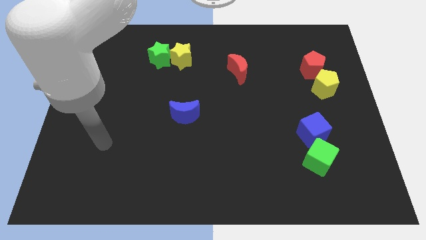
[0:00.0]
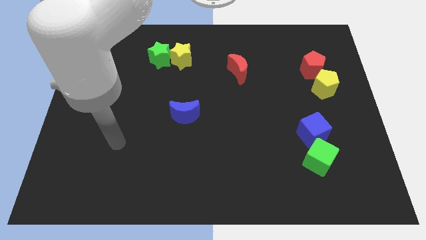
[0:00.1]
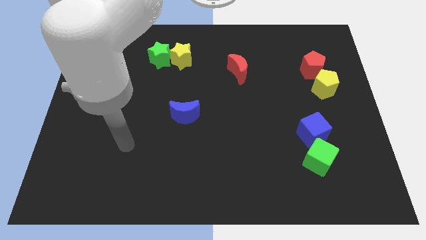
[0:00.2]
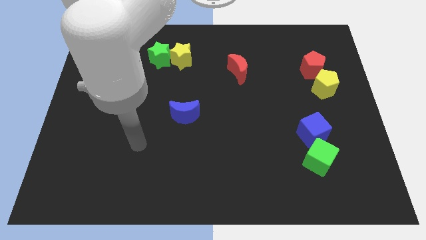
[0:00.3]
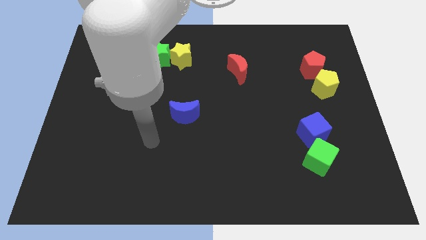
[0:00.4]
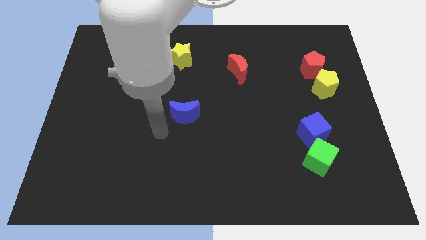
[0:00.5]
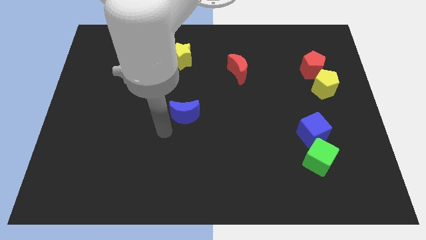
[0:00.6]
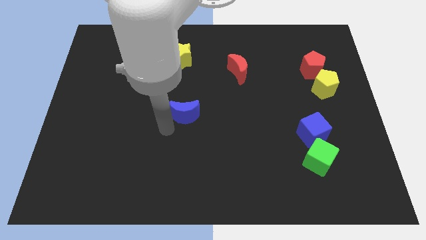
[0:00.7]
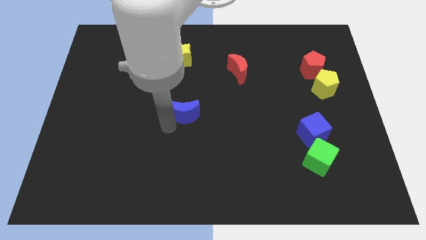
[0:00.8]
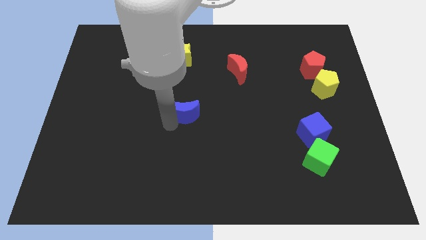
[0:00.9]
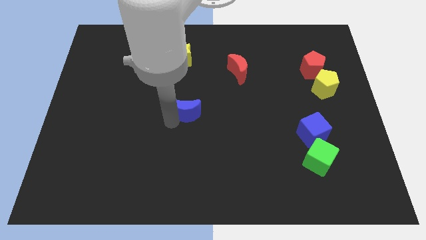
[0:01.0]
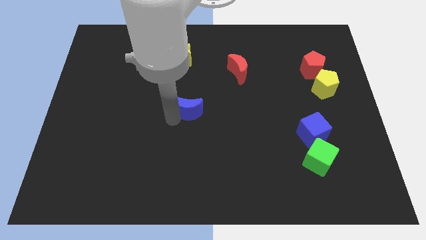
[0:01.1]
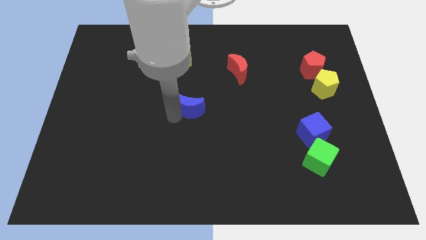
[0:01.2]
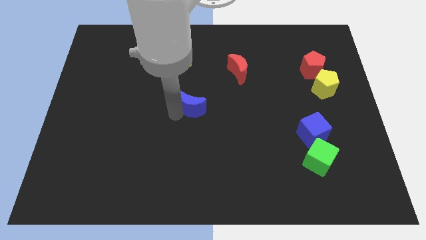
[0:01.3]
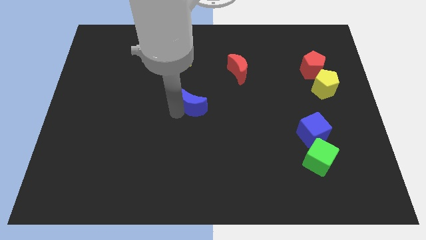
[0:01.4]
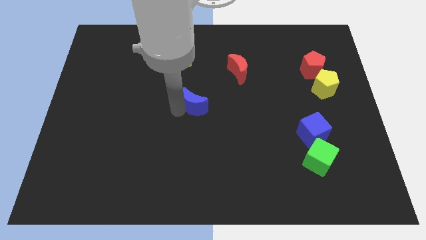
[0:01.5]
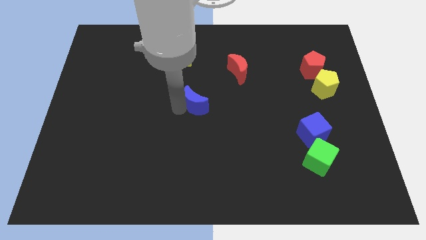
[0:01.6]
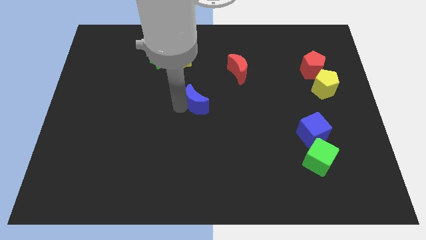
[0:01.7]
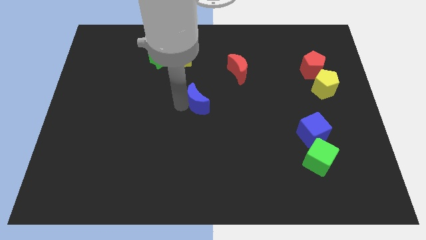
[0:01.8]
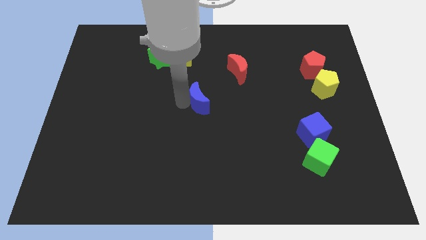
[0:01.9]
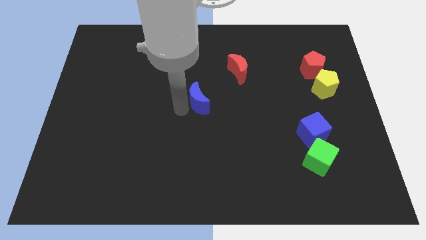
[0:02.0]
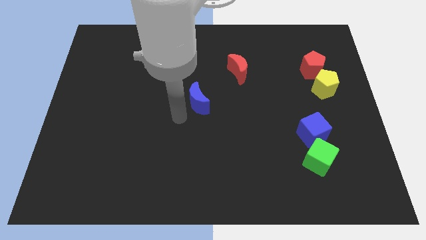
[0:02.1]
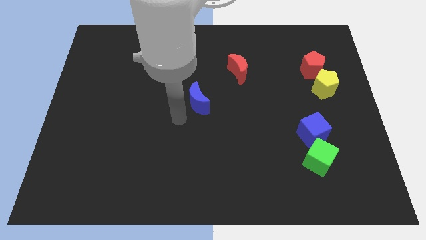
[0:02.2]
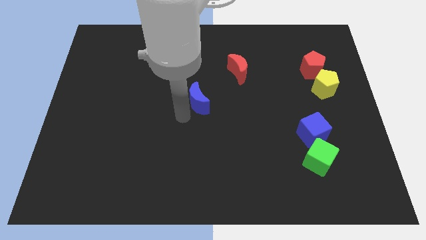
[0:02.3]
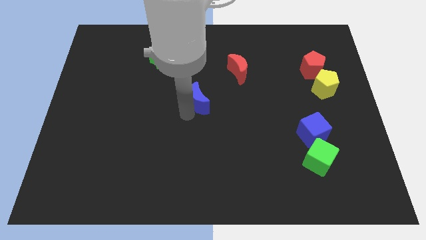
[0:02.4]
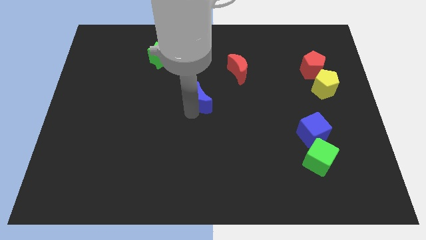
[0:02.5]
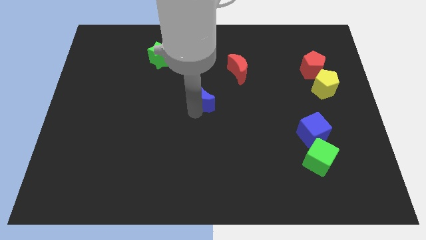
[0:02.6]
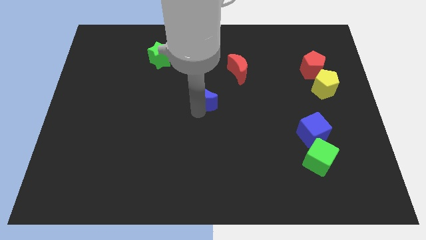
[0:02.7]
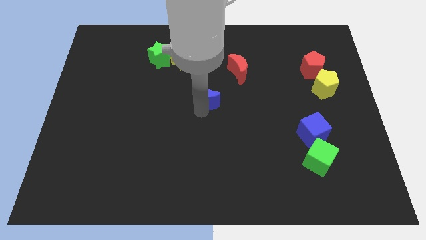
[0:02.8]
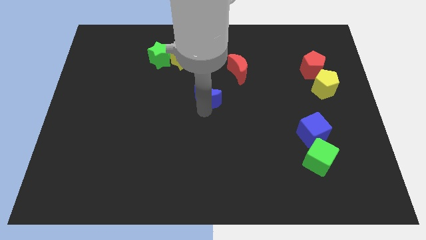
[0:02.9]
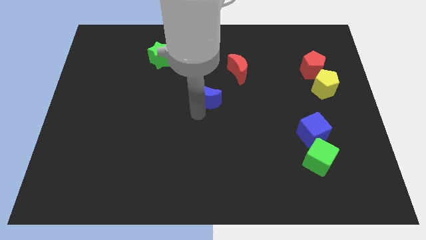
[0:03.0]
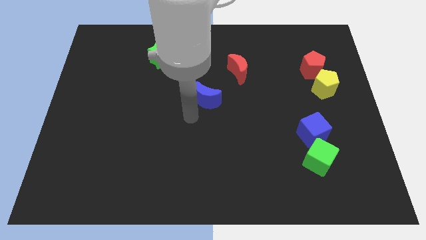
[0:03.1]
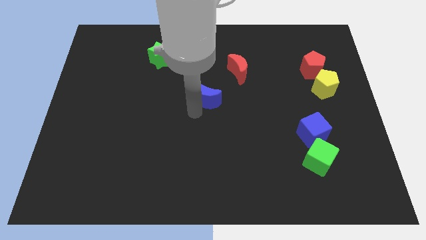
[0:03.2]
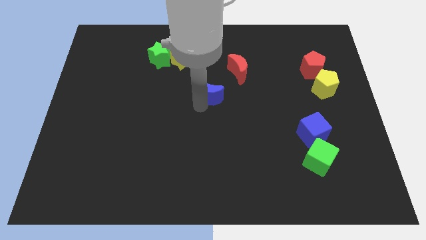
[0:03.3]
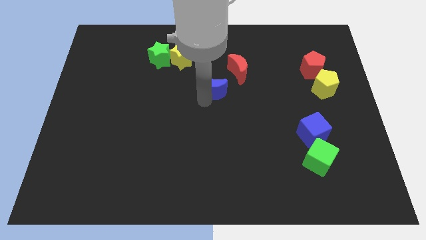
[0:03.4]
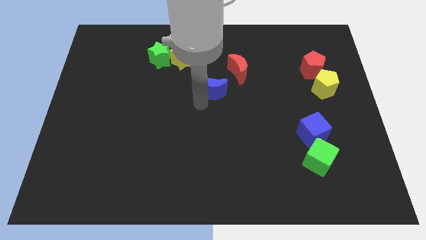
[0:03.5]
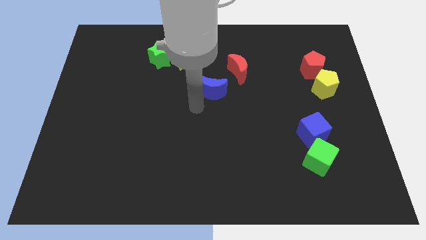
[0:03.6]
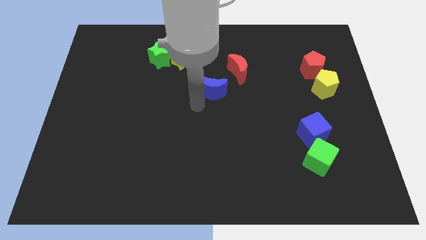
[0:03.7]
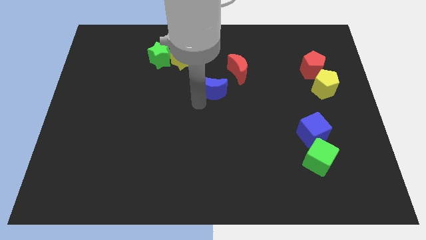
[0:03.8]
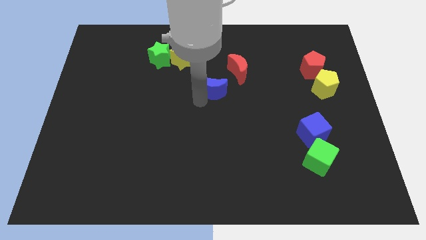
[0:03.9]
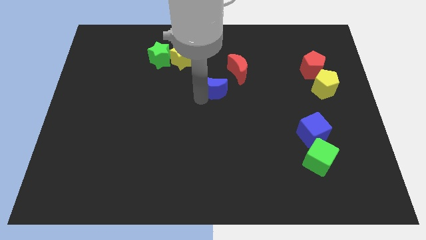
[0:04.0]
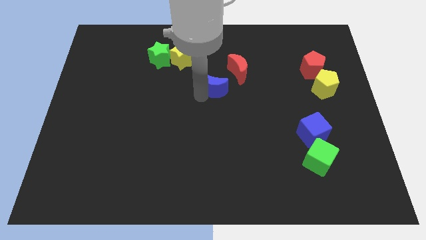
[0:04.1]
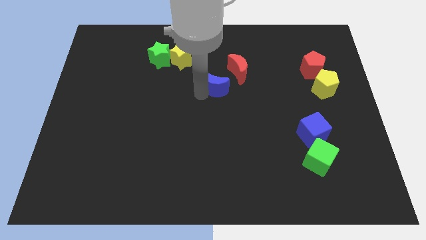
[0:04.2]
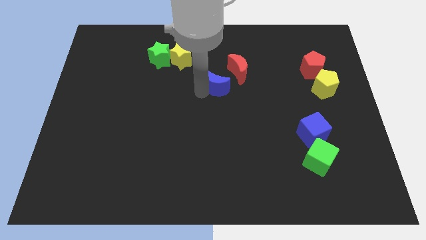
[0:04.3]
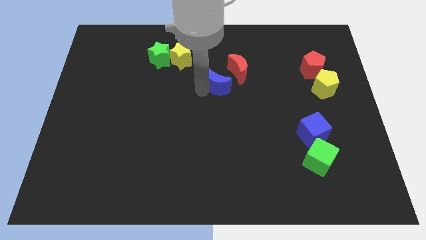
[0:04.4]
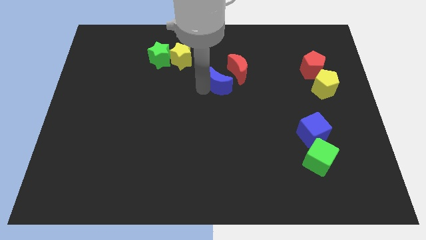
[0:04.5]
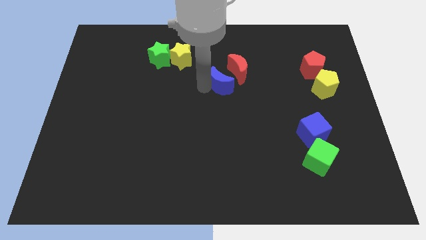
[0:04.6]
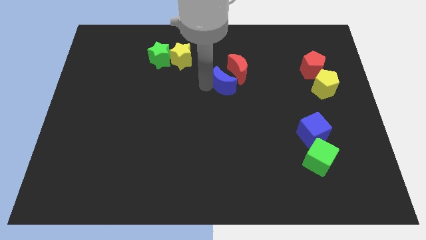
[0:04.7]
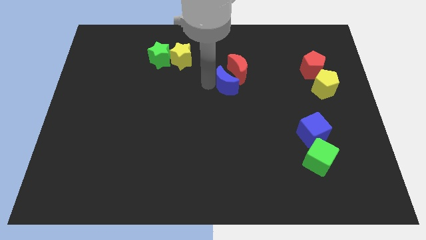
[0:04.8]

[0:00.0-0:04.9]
move the blue moon close to the red moon

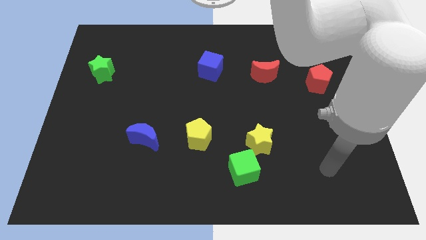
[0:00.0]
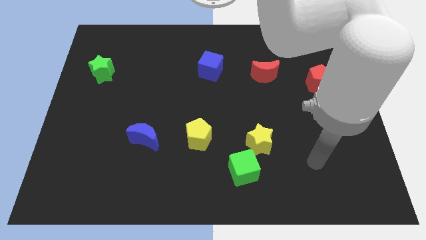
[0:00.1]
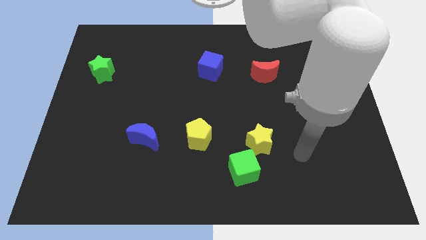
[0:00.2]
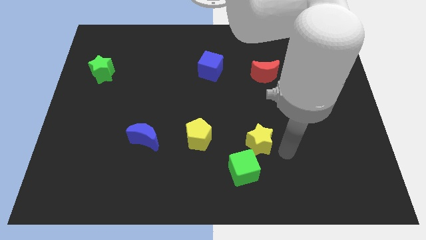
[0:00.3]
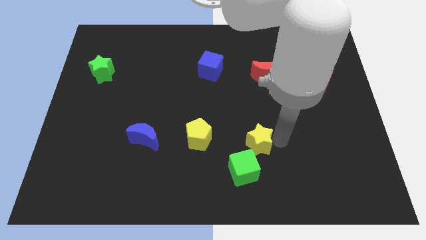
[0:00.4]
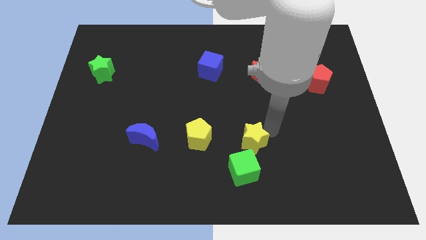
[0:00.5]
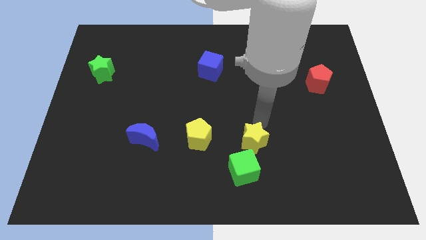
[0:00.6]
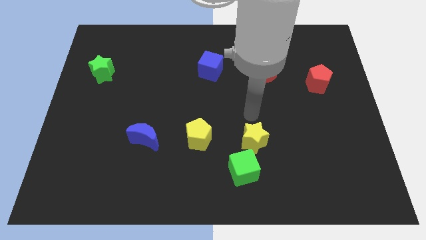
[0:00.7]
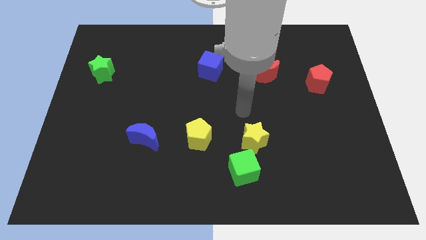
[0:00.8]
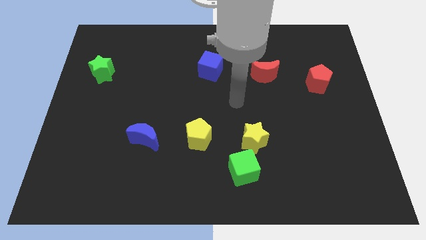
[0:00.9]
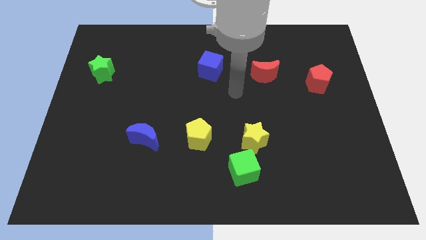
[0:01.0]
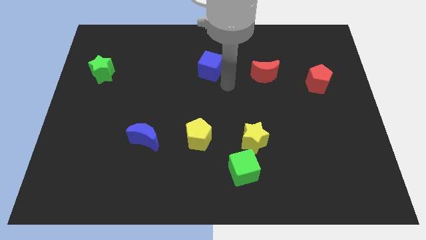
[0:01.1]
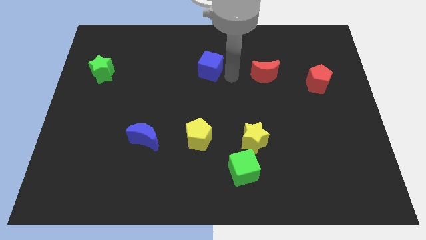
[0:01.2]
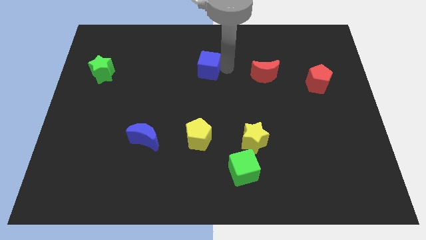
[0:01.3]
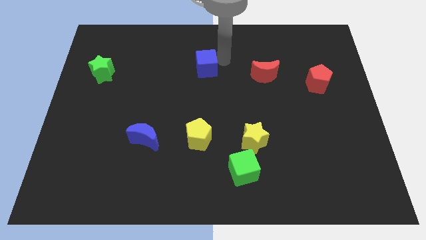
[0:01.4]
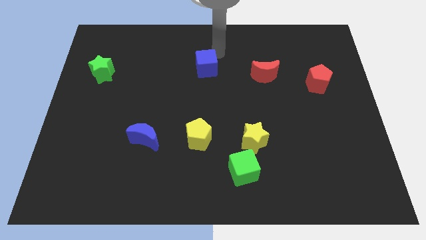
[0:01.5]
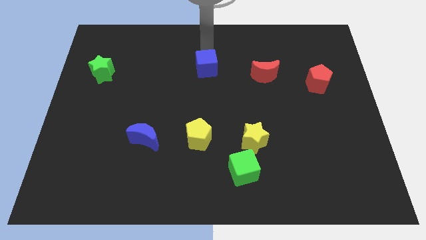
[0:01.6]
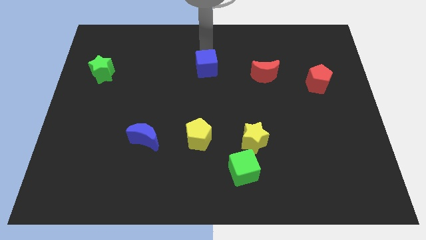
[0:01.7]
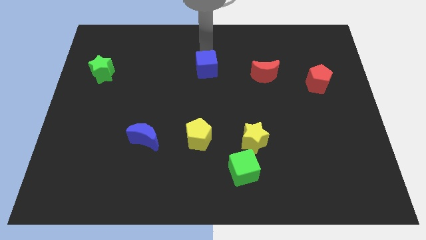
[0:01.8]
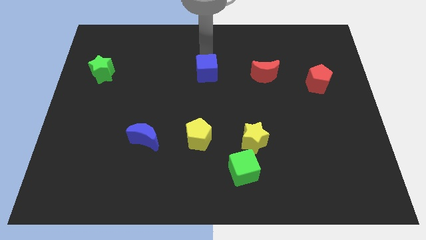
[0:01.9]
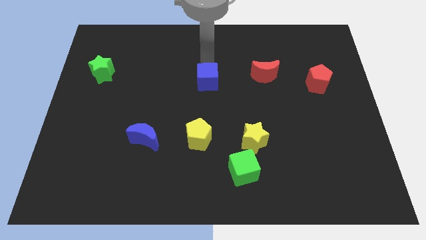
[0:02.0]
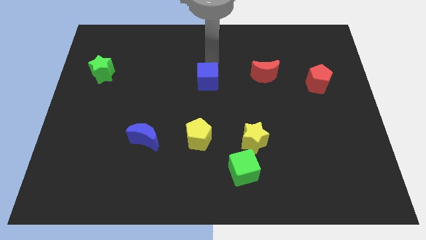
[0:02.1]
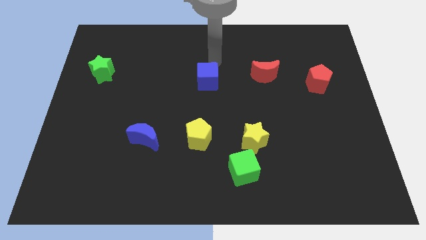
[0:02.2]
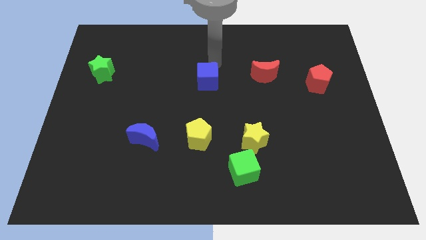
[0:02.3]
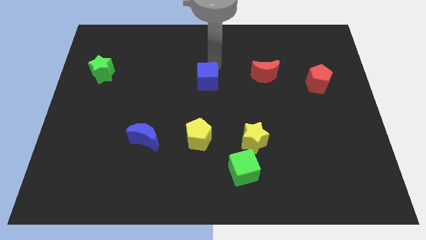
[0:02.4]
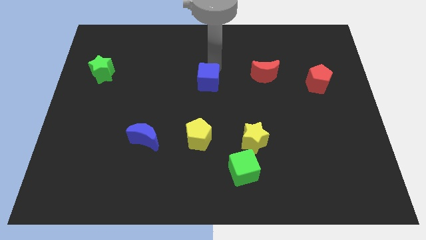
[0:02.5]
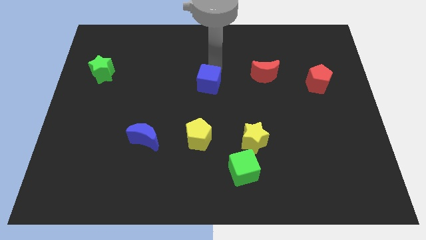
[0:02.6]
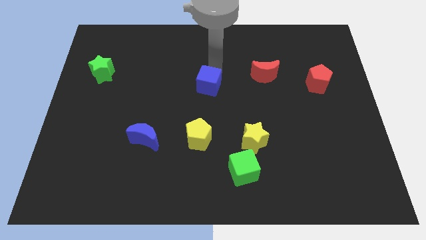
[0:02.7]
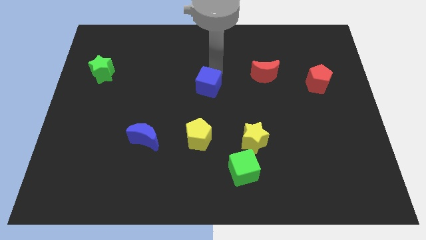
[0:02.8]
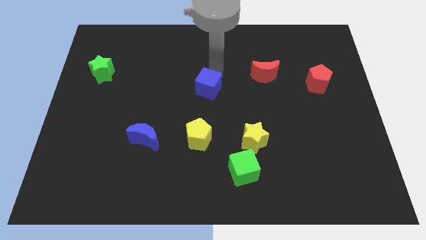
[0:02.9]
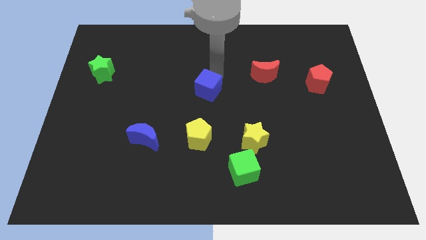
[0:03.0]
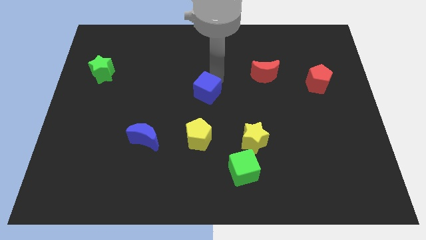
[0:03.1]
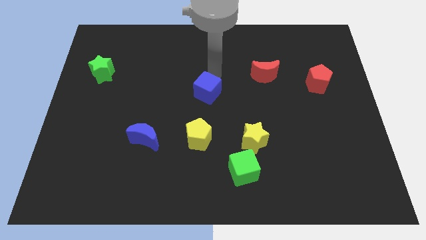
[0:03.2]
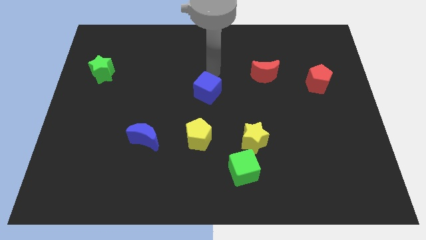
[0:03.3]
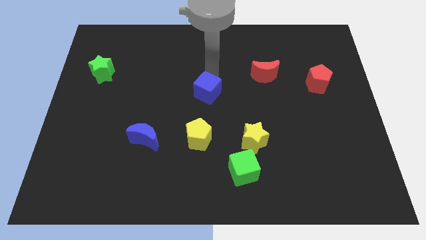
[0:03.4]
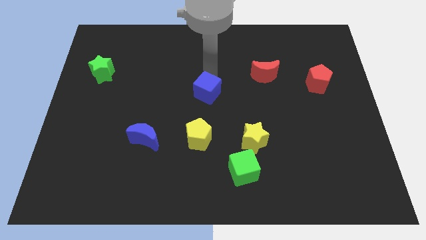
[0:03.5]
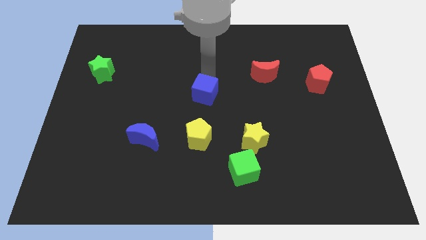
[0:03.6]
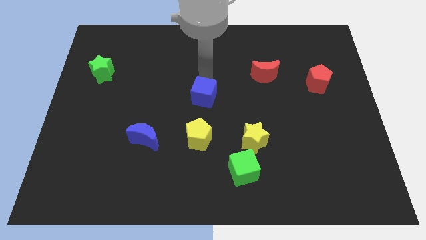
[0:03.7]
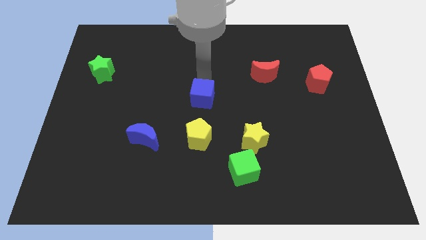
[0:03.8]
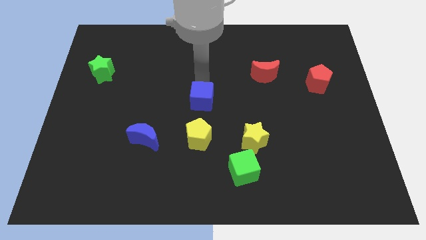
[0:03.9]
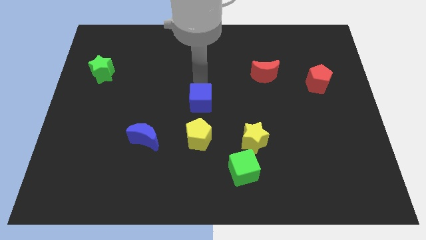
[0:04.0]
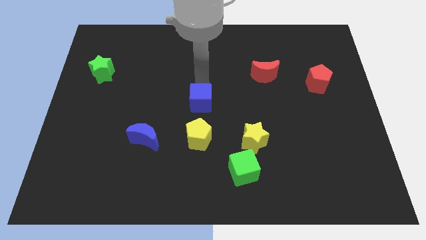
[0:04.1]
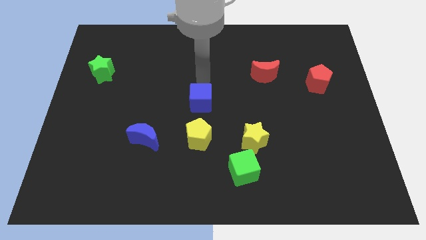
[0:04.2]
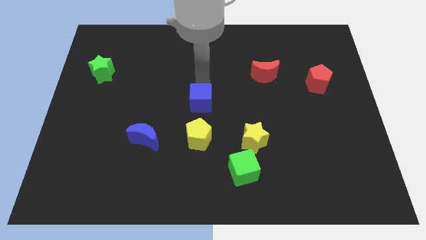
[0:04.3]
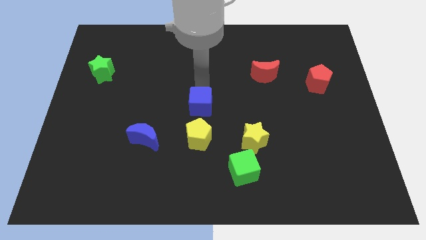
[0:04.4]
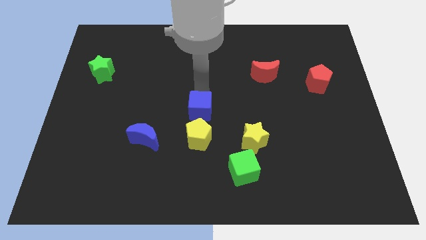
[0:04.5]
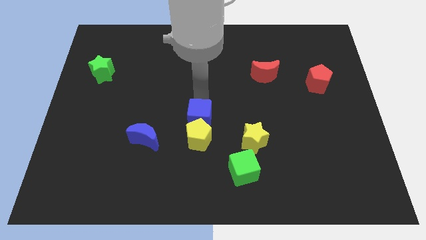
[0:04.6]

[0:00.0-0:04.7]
slide the blue cube towards the yellow pentagon
